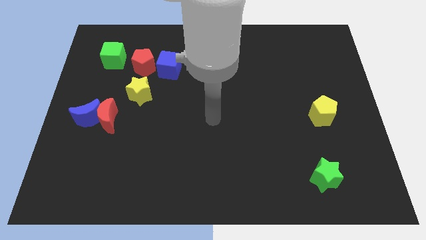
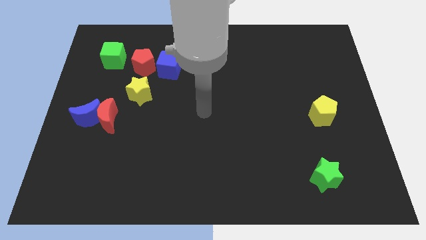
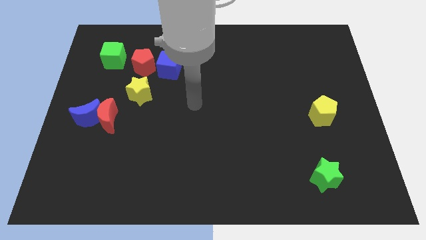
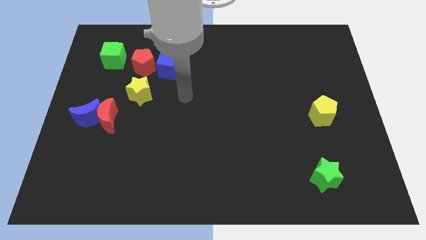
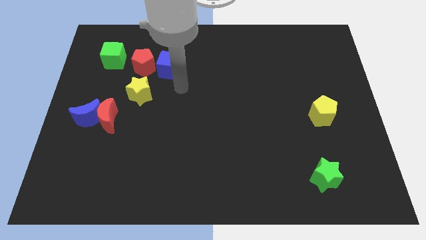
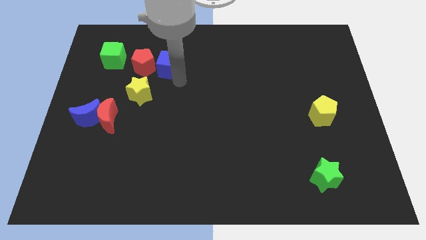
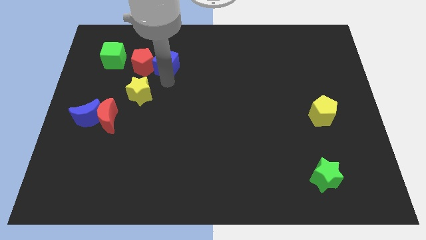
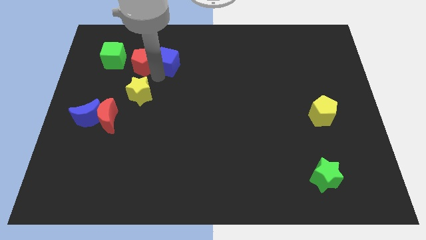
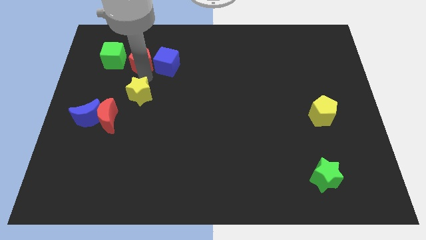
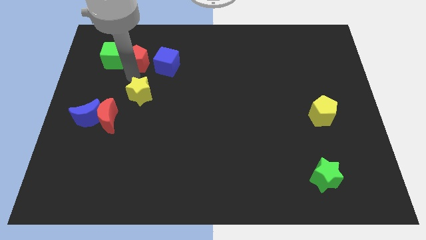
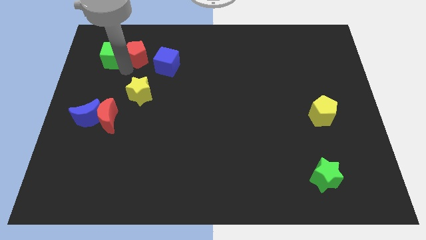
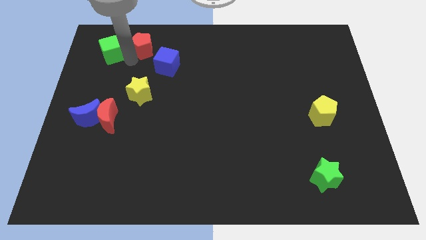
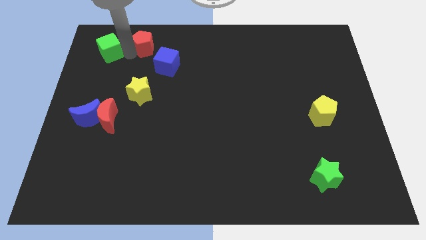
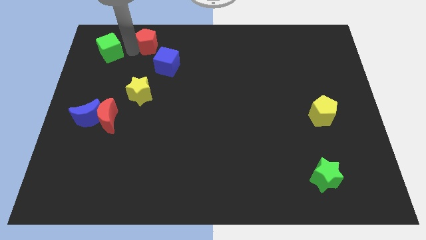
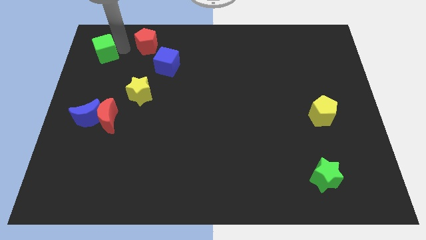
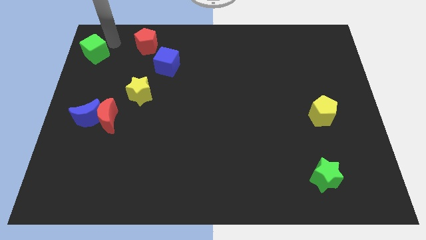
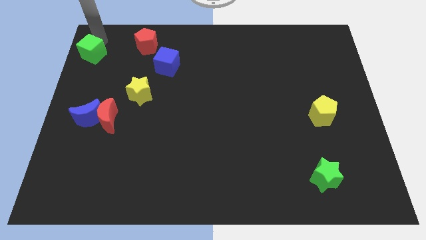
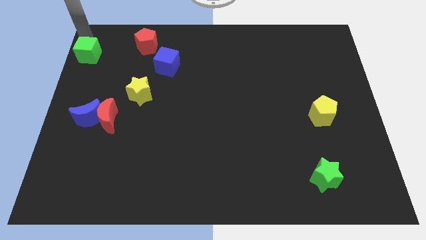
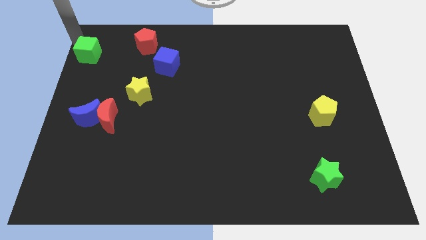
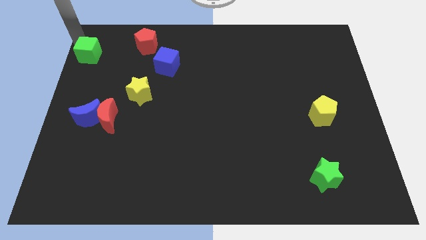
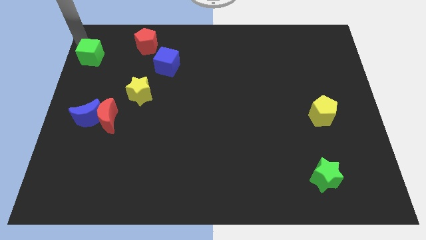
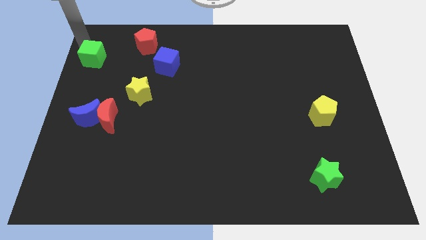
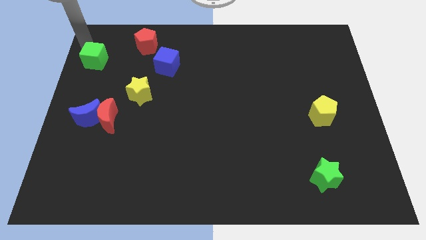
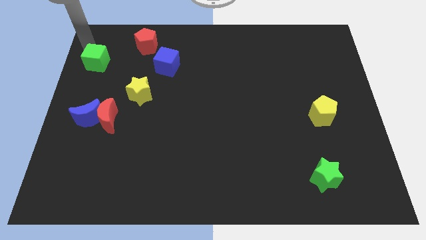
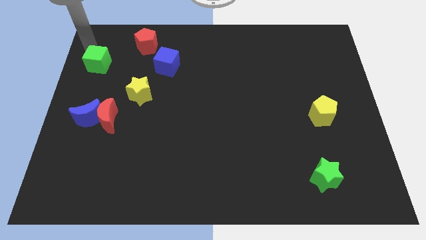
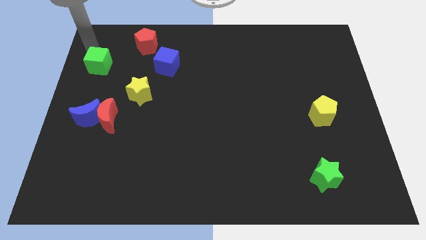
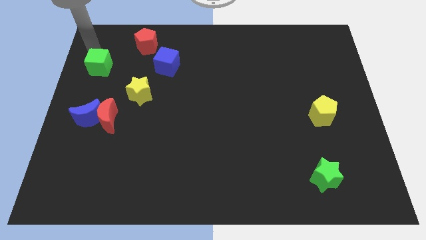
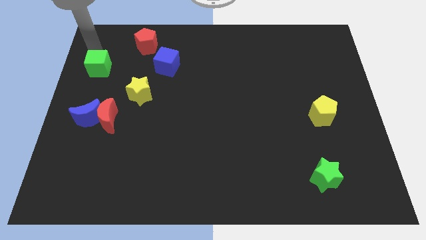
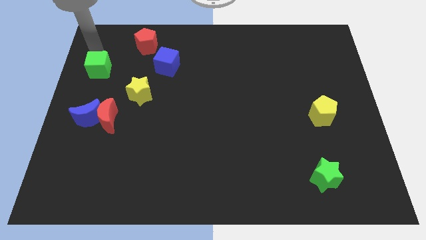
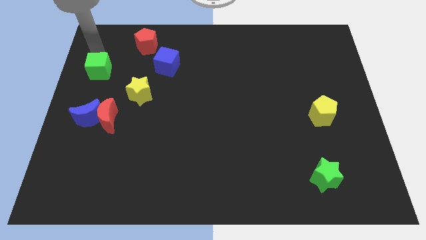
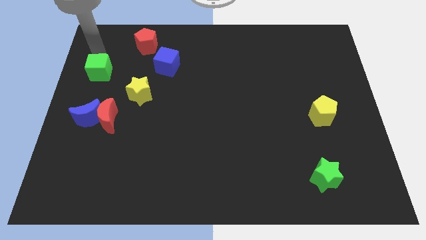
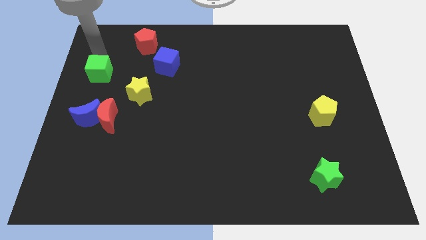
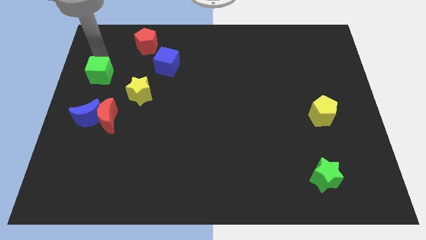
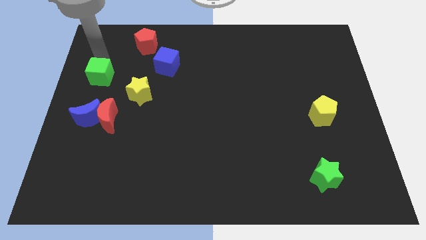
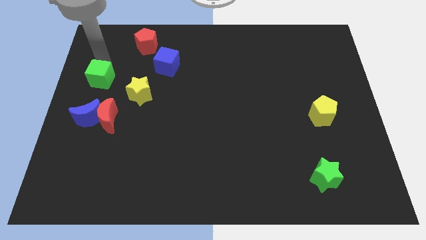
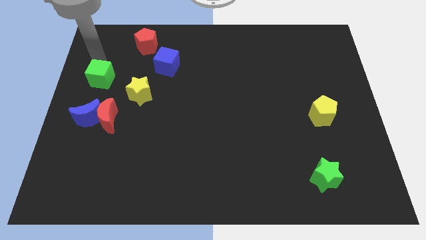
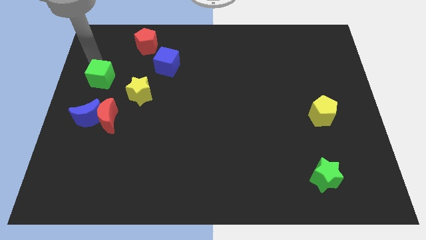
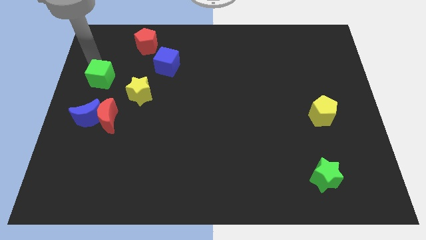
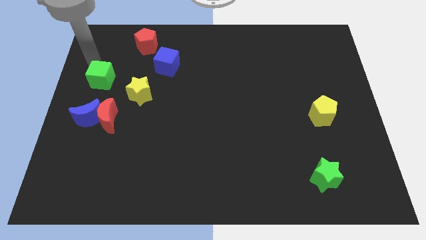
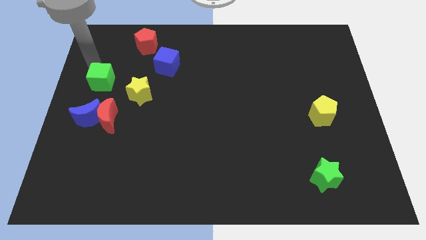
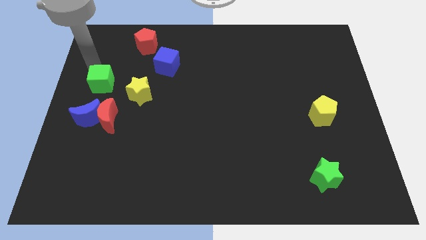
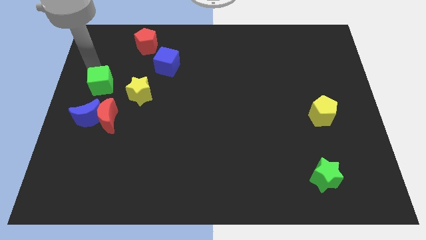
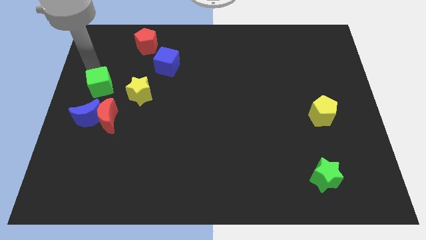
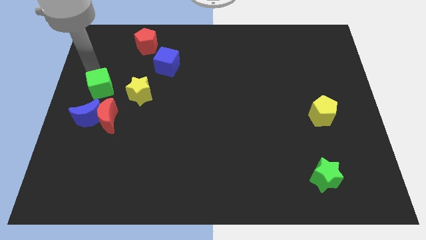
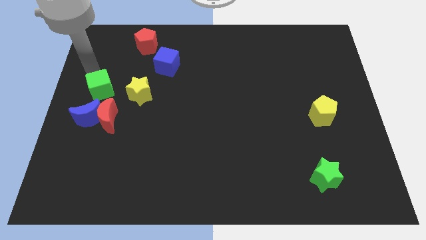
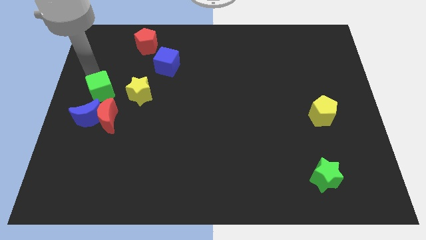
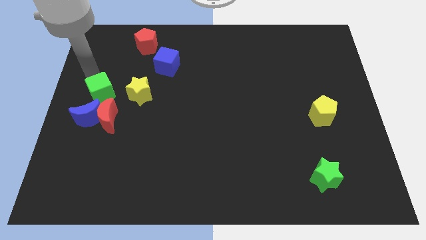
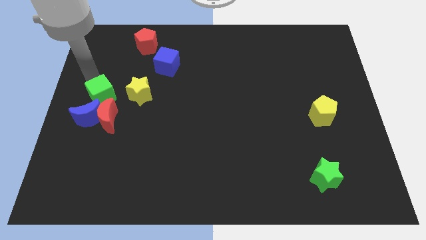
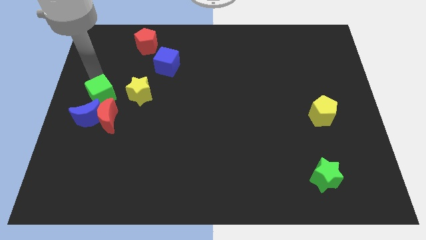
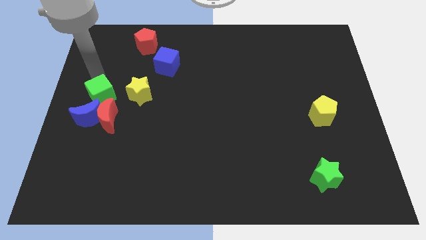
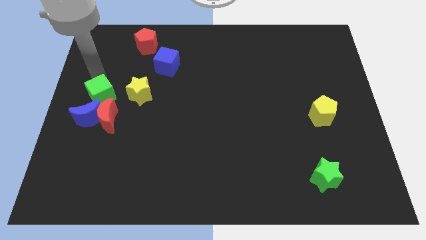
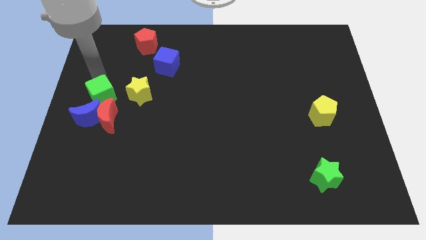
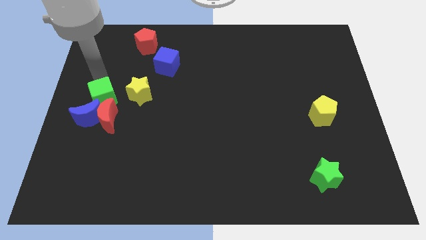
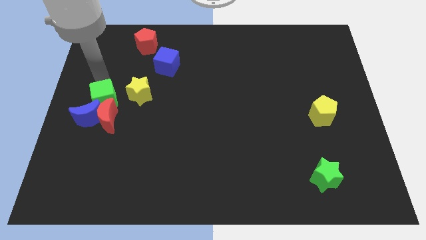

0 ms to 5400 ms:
put the green cube towards the red moon

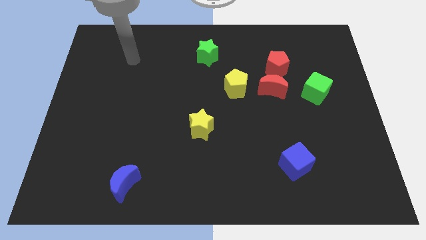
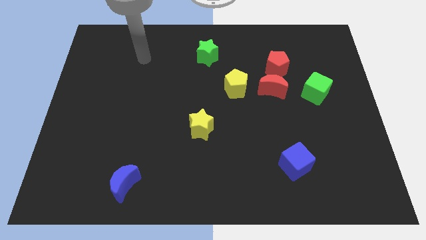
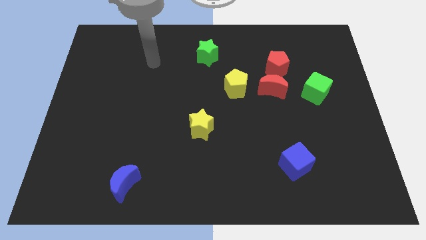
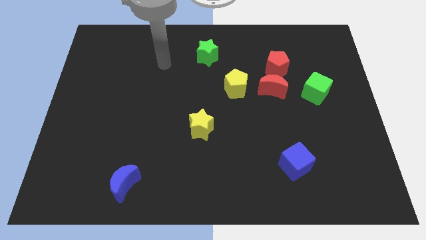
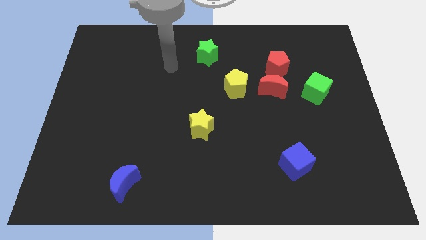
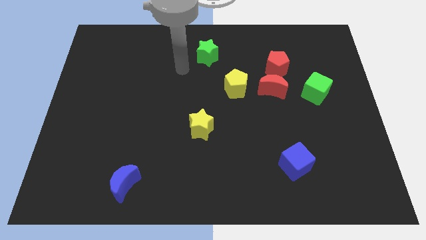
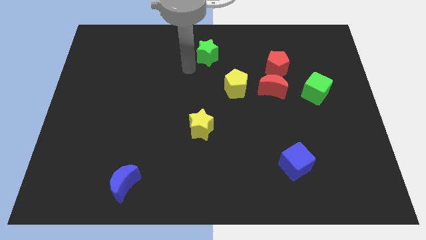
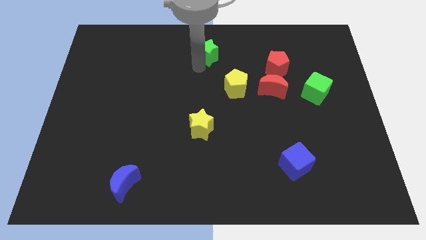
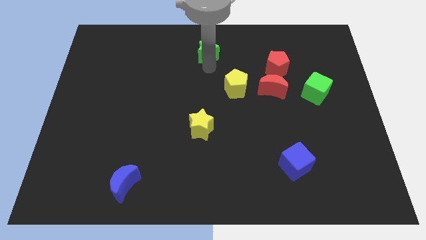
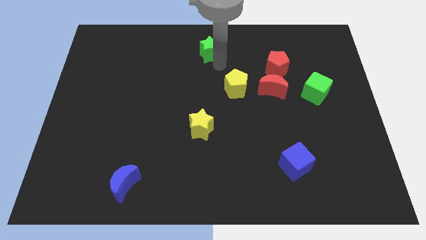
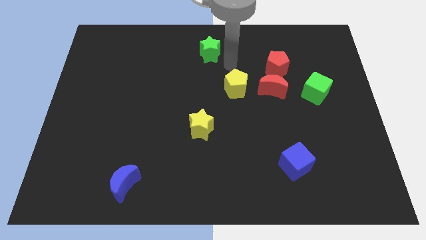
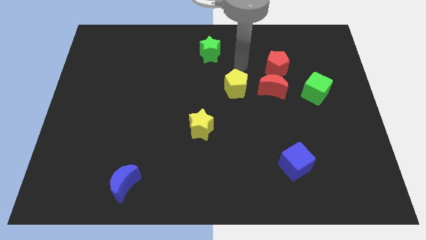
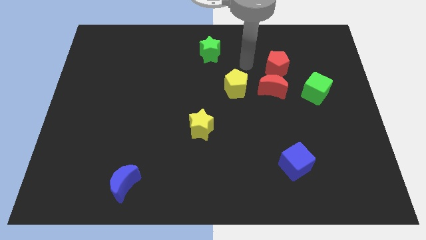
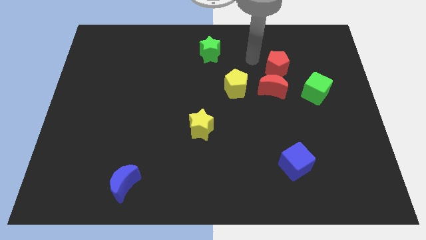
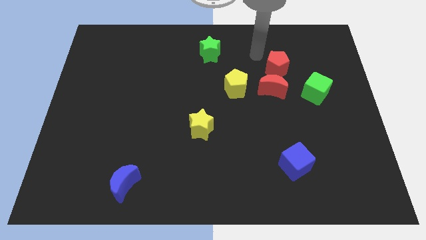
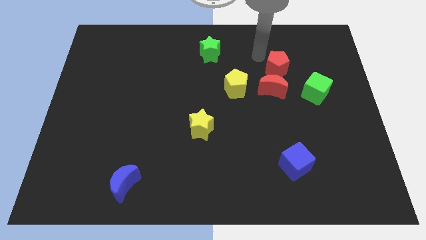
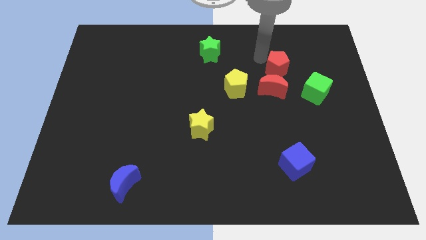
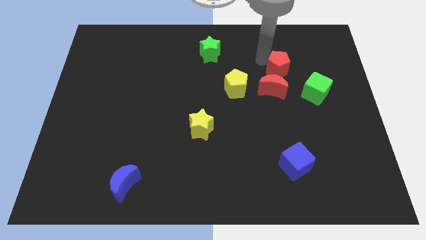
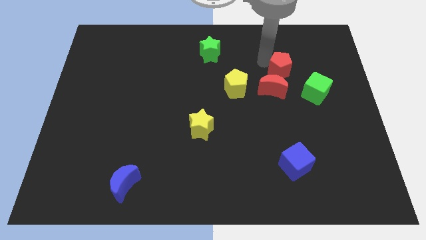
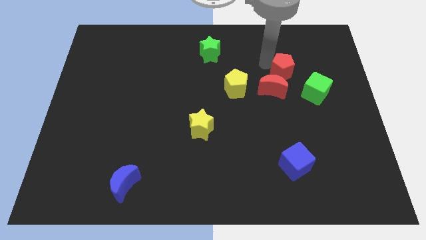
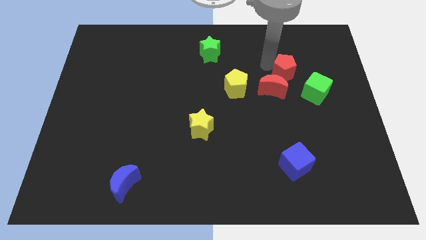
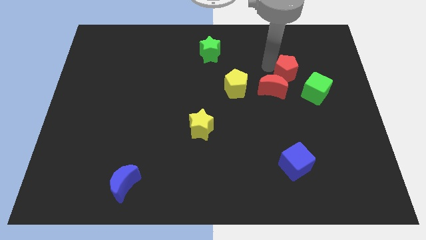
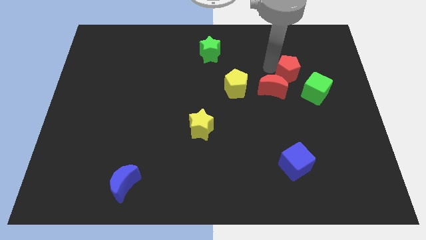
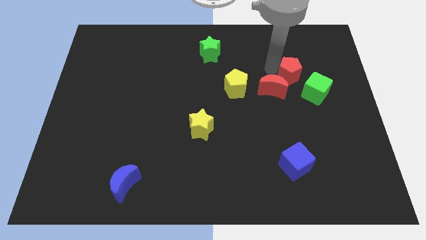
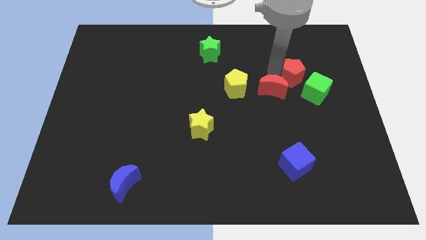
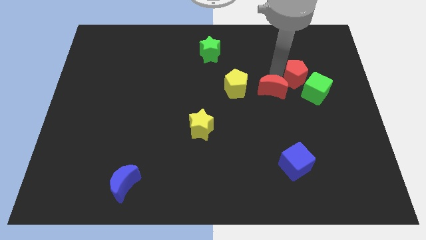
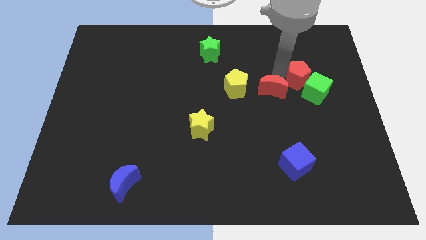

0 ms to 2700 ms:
put the red pentagon to the green cube
